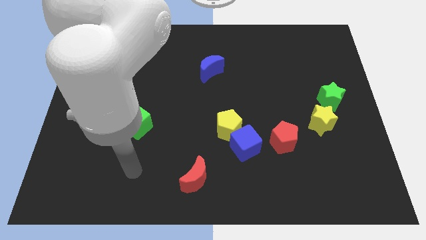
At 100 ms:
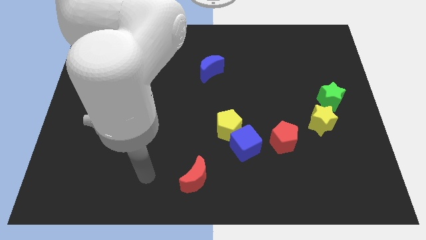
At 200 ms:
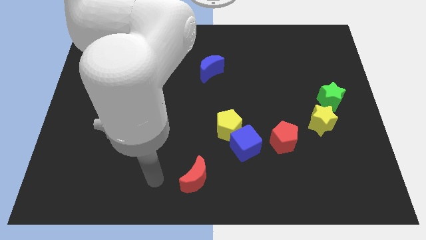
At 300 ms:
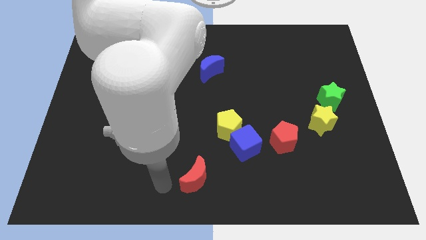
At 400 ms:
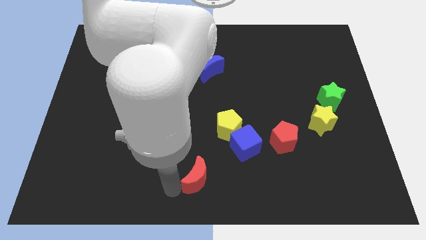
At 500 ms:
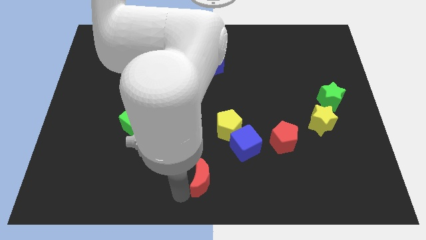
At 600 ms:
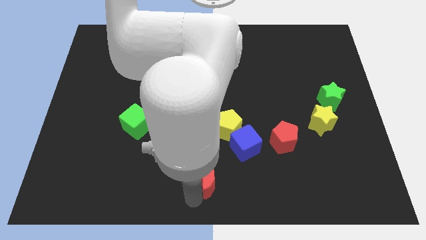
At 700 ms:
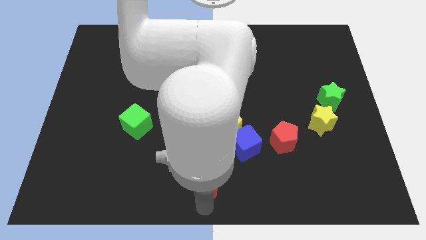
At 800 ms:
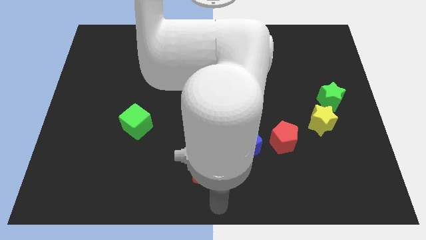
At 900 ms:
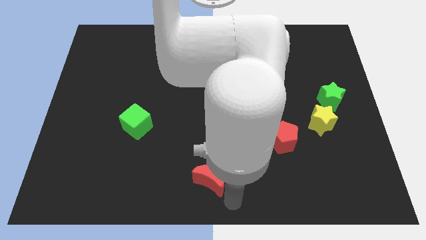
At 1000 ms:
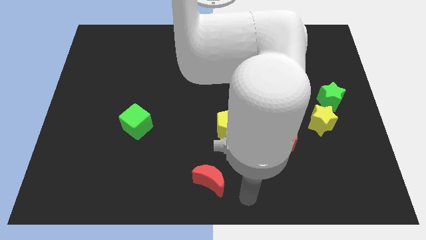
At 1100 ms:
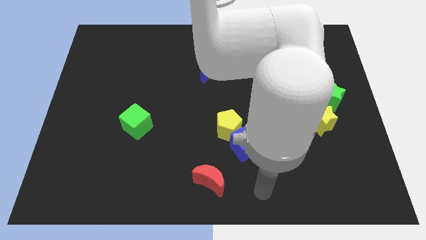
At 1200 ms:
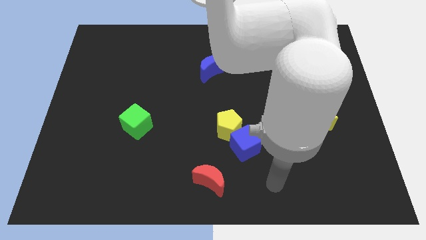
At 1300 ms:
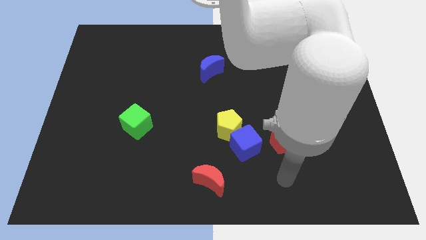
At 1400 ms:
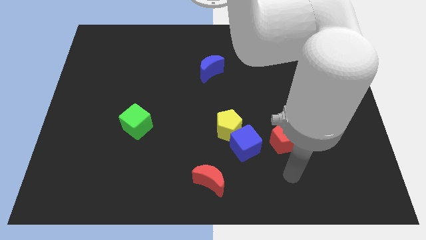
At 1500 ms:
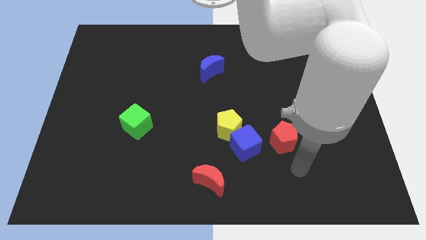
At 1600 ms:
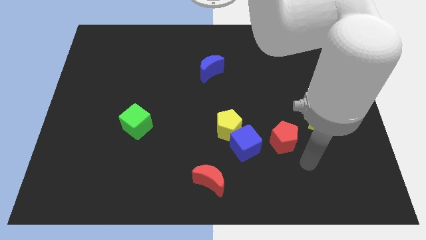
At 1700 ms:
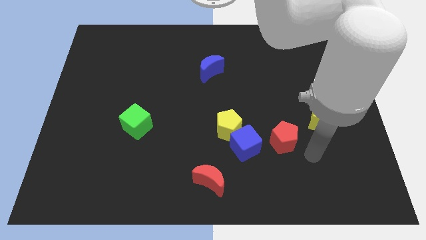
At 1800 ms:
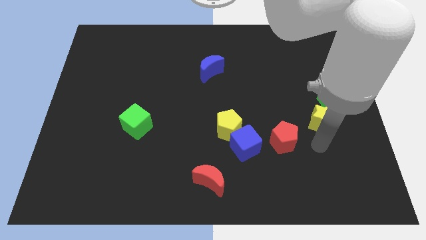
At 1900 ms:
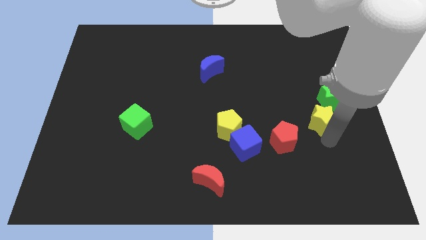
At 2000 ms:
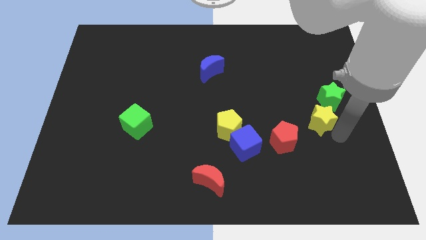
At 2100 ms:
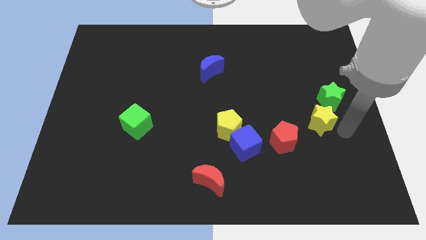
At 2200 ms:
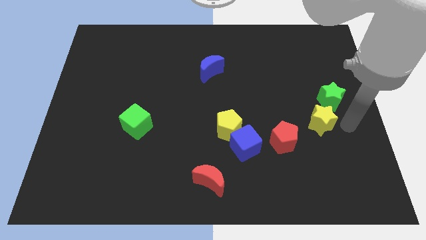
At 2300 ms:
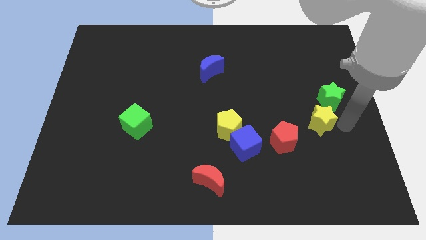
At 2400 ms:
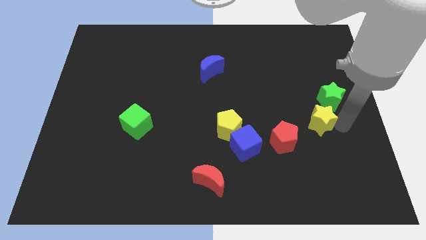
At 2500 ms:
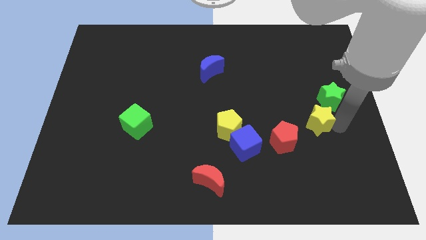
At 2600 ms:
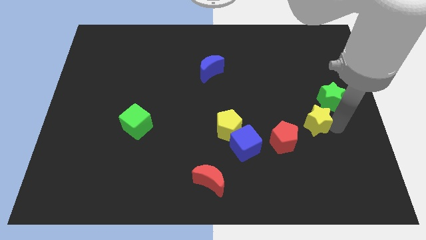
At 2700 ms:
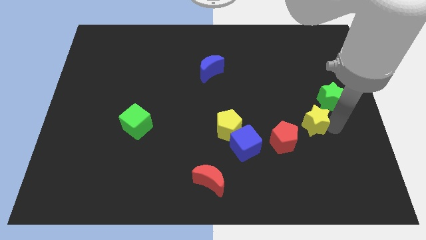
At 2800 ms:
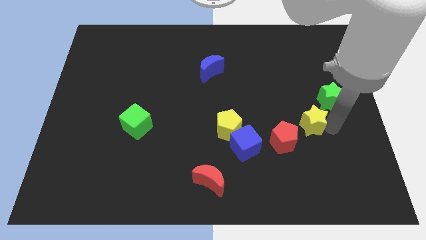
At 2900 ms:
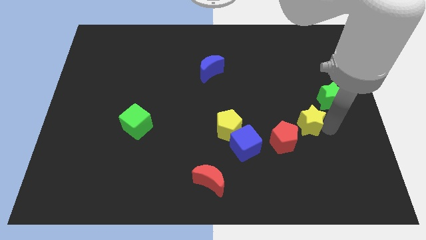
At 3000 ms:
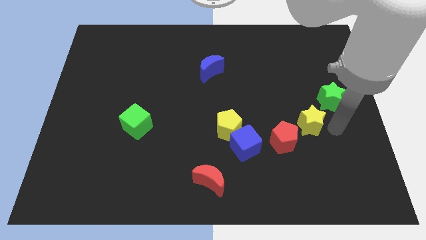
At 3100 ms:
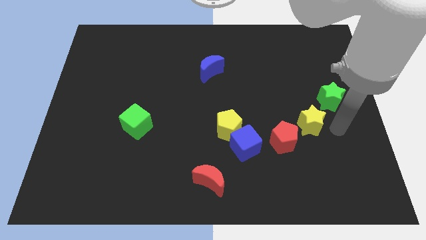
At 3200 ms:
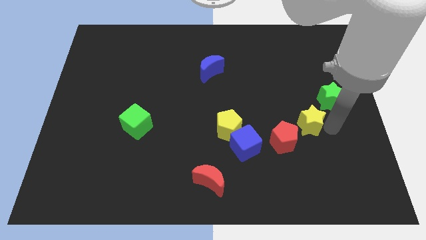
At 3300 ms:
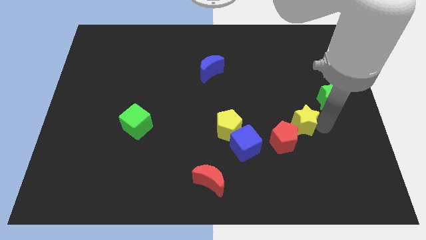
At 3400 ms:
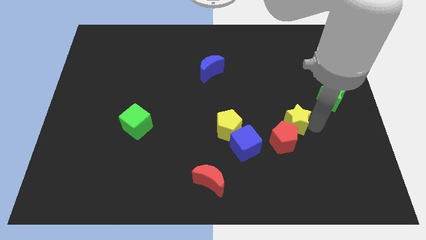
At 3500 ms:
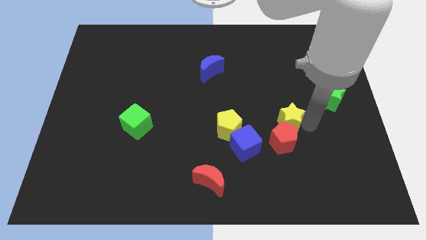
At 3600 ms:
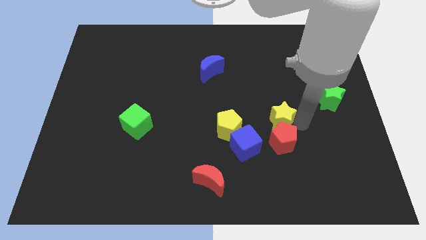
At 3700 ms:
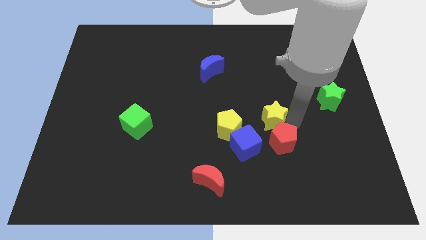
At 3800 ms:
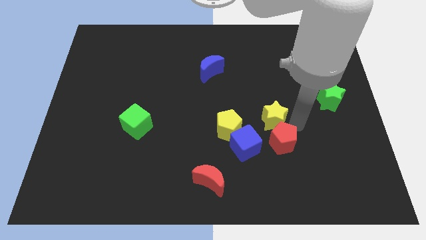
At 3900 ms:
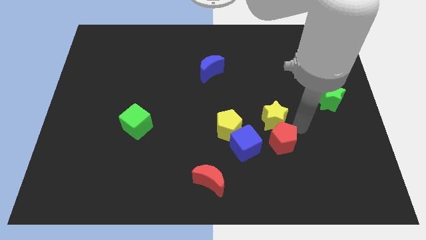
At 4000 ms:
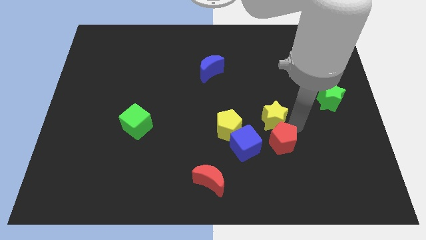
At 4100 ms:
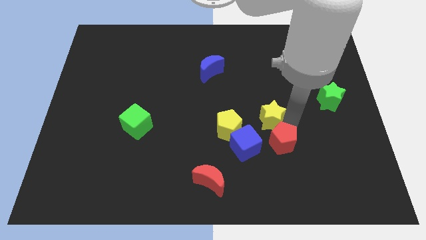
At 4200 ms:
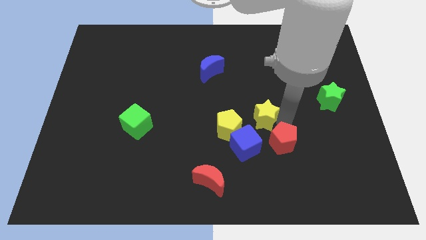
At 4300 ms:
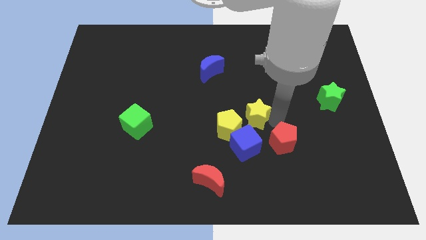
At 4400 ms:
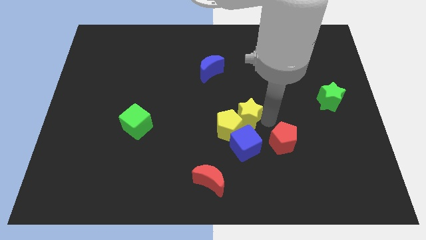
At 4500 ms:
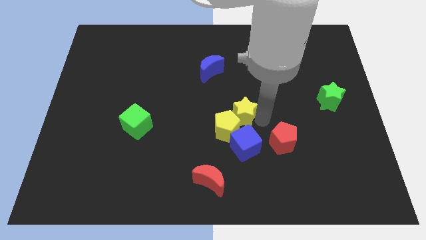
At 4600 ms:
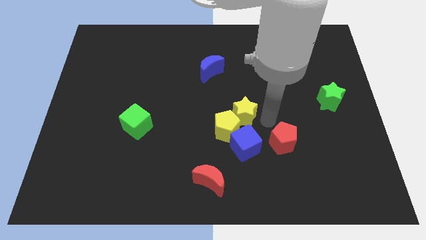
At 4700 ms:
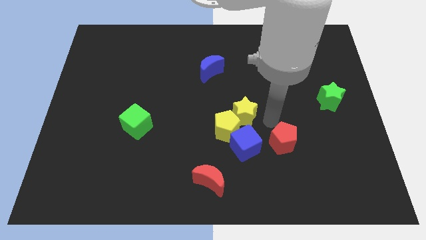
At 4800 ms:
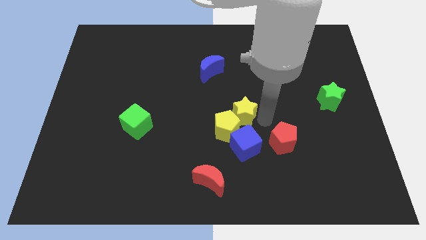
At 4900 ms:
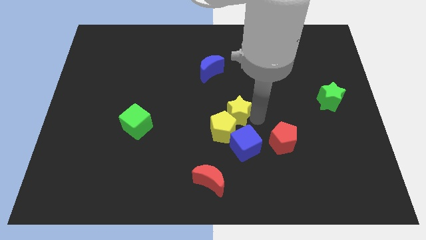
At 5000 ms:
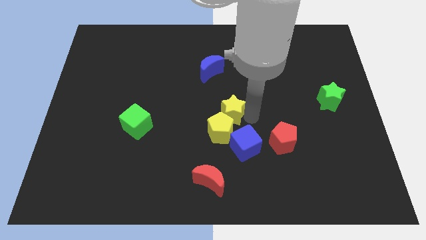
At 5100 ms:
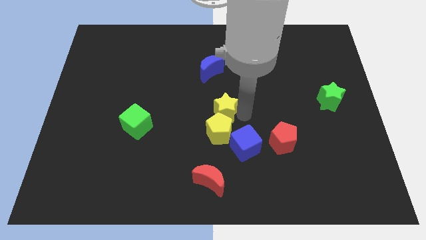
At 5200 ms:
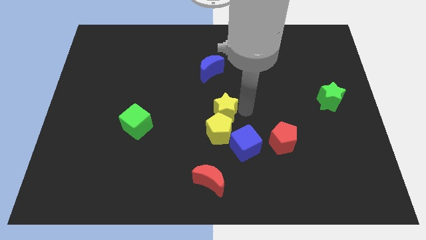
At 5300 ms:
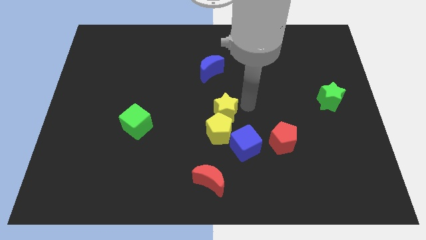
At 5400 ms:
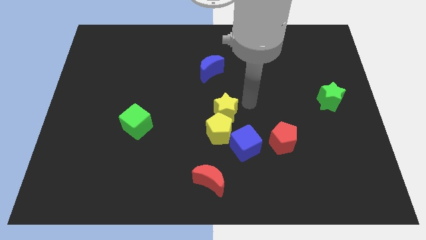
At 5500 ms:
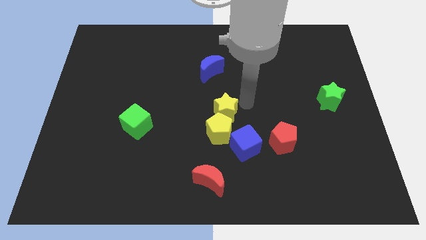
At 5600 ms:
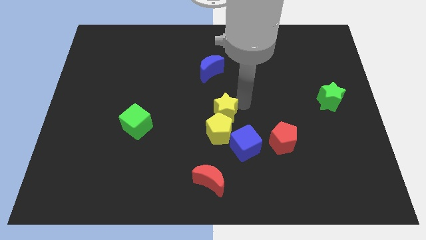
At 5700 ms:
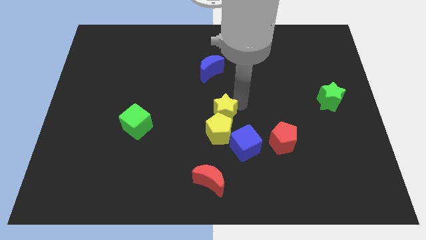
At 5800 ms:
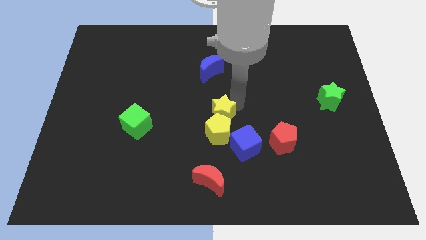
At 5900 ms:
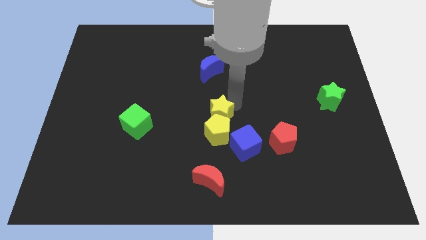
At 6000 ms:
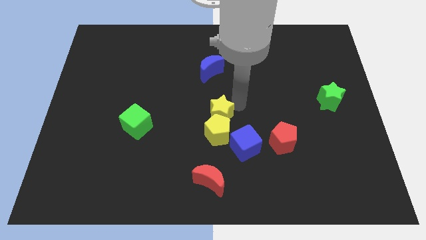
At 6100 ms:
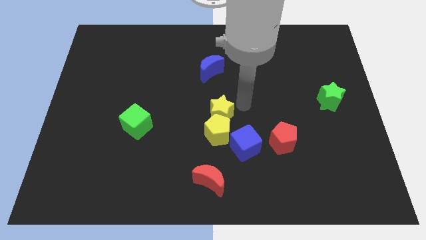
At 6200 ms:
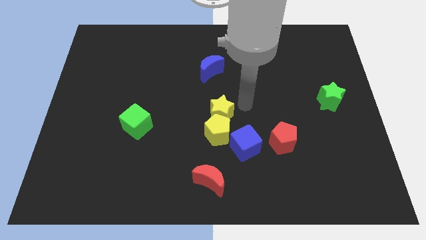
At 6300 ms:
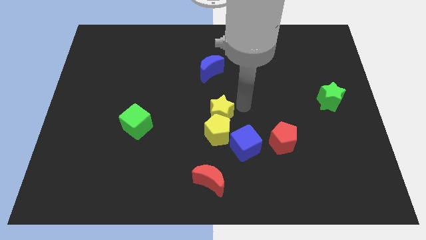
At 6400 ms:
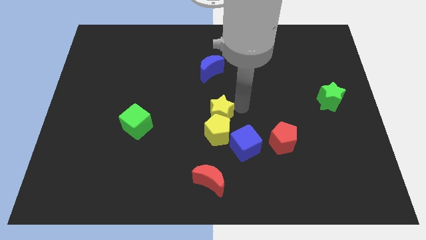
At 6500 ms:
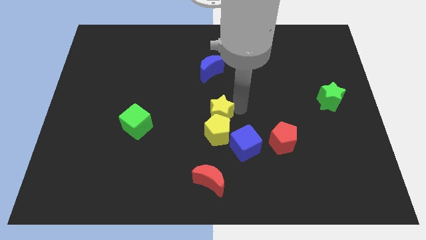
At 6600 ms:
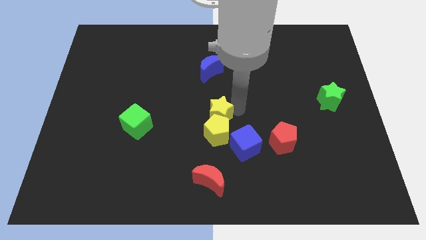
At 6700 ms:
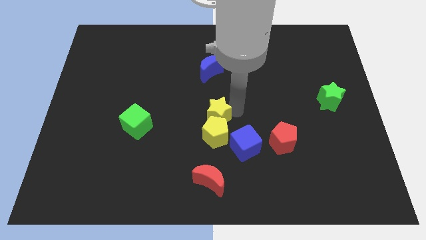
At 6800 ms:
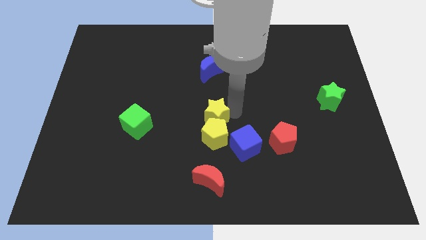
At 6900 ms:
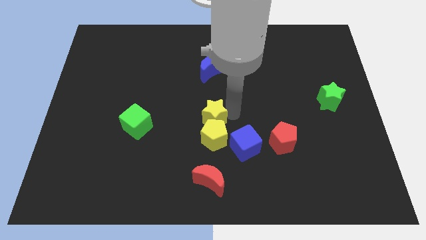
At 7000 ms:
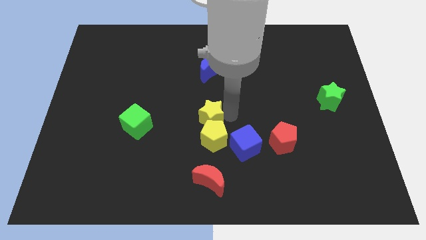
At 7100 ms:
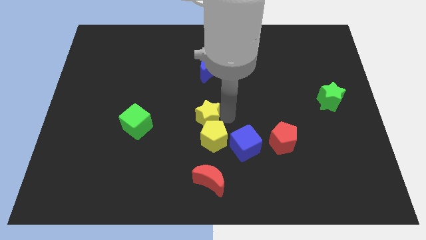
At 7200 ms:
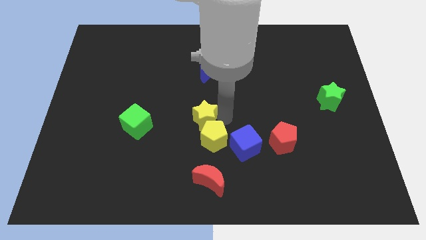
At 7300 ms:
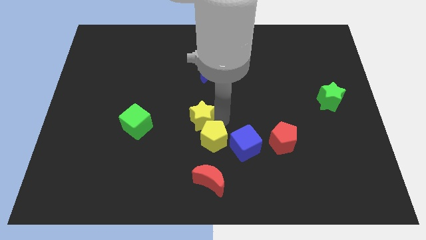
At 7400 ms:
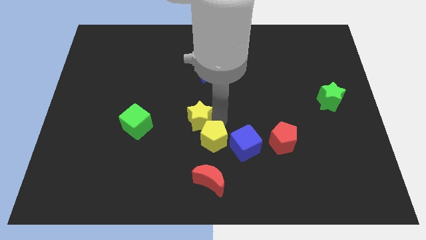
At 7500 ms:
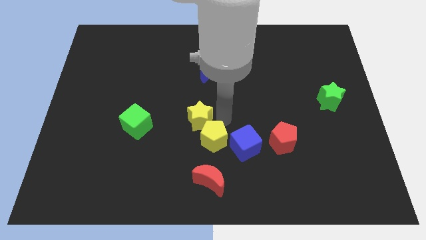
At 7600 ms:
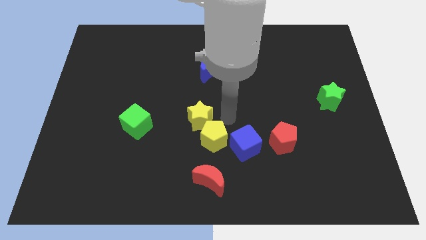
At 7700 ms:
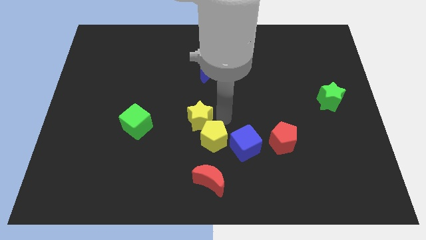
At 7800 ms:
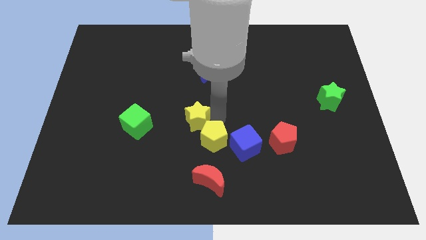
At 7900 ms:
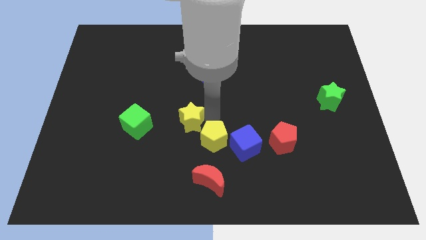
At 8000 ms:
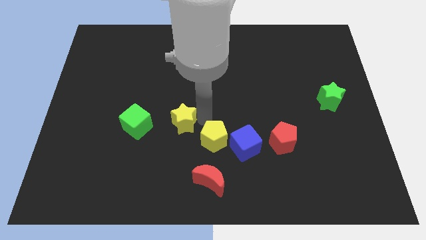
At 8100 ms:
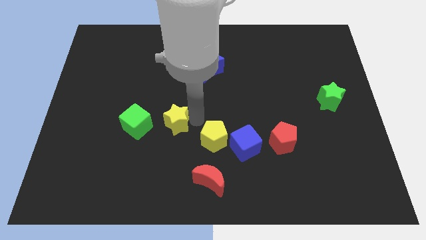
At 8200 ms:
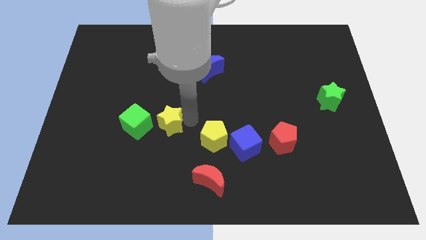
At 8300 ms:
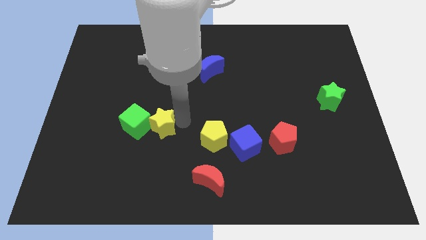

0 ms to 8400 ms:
slide the yellow star next to the green cube
